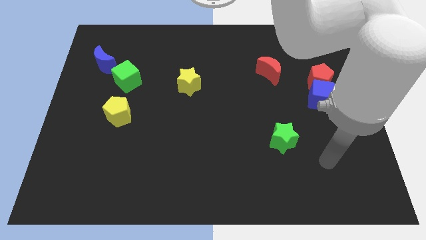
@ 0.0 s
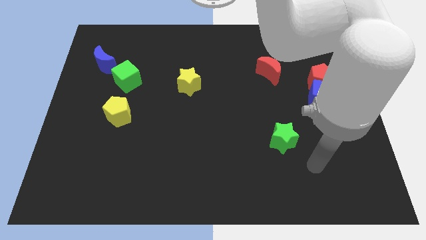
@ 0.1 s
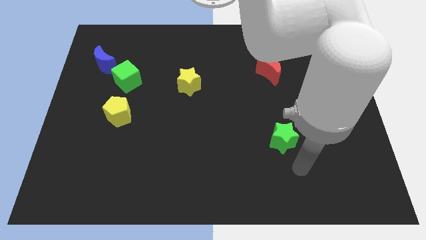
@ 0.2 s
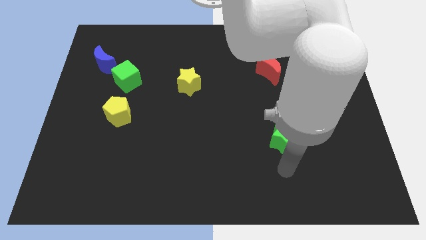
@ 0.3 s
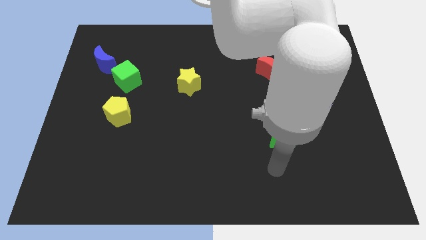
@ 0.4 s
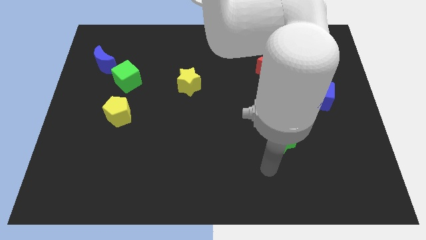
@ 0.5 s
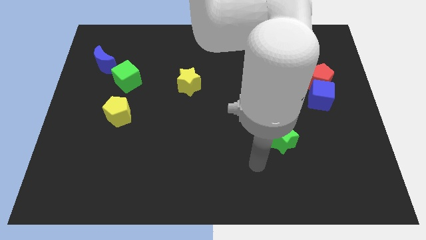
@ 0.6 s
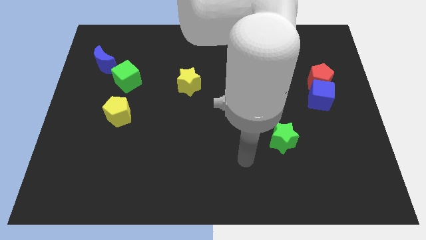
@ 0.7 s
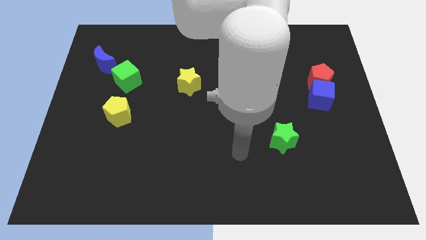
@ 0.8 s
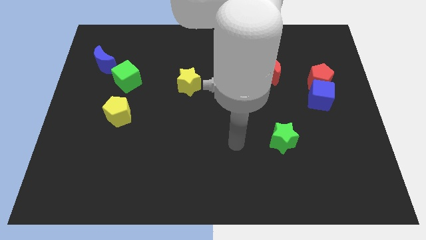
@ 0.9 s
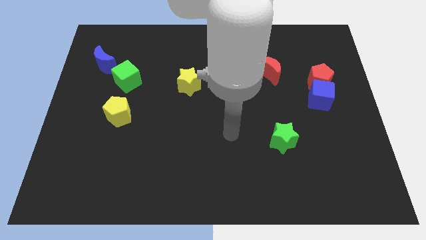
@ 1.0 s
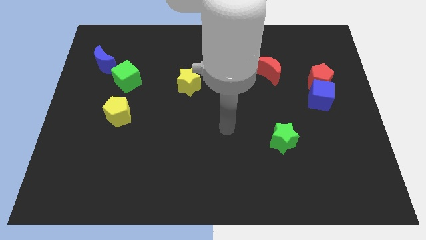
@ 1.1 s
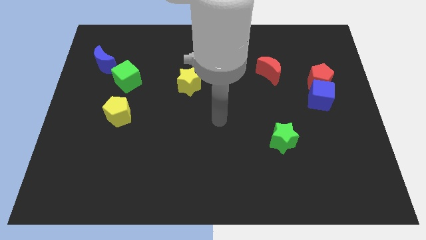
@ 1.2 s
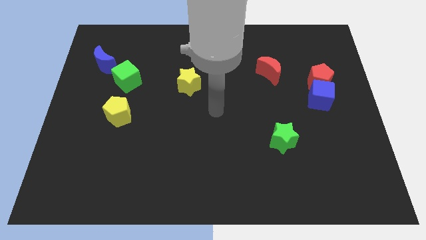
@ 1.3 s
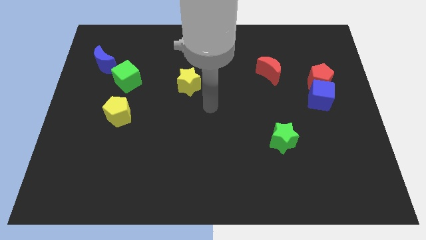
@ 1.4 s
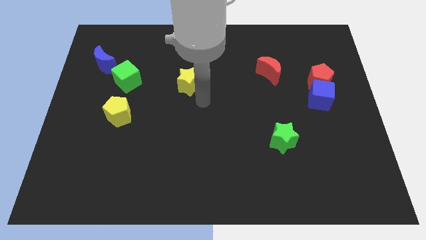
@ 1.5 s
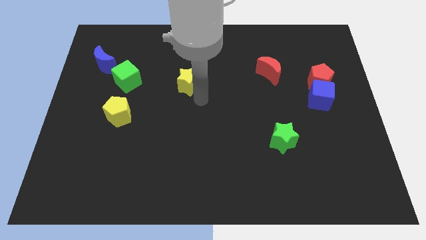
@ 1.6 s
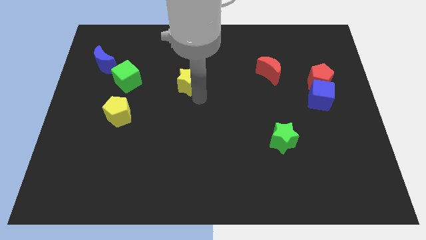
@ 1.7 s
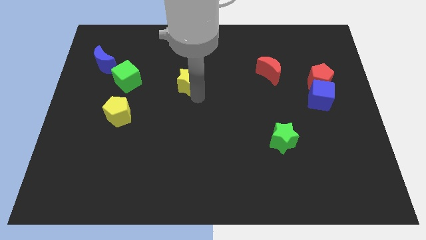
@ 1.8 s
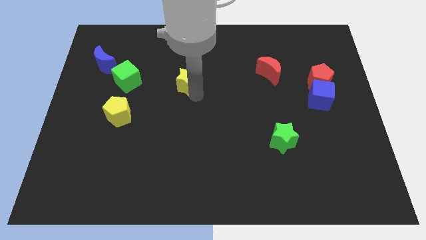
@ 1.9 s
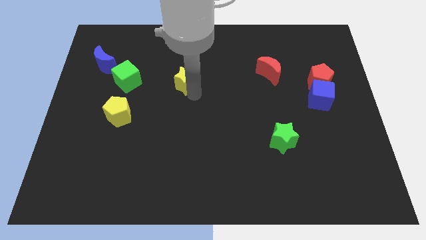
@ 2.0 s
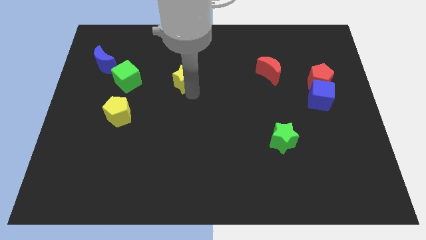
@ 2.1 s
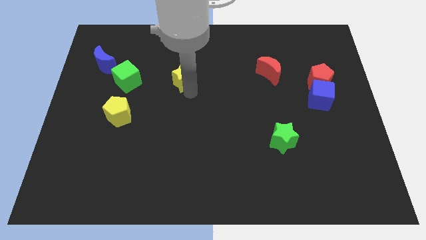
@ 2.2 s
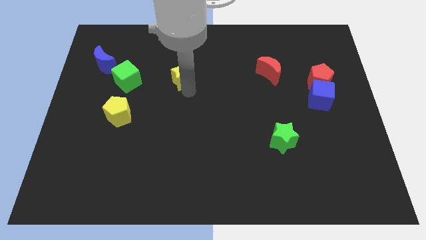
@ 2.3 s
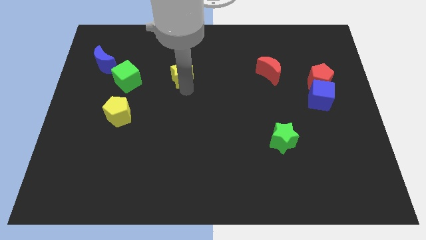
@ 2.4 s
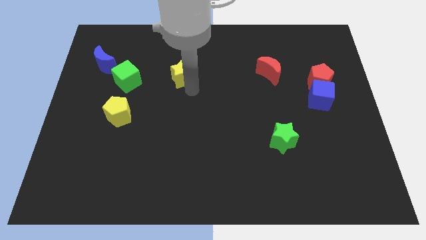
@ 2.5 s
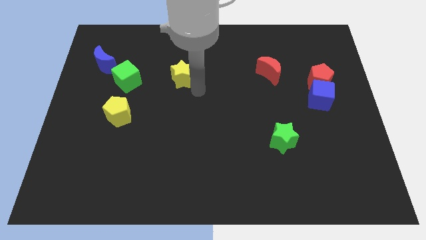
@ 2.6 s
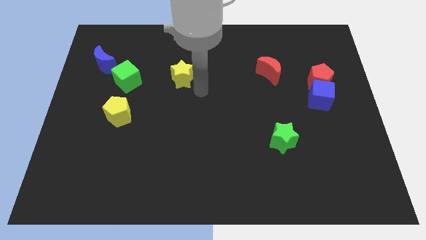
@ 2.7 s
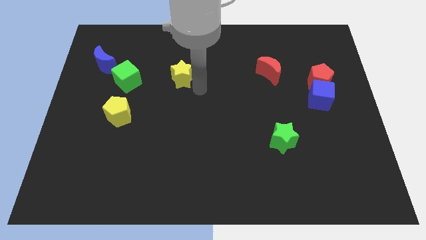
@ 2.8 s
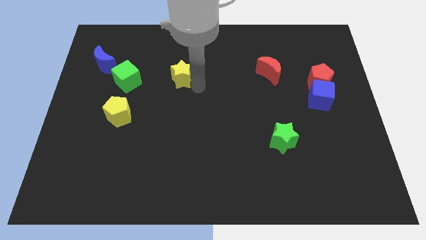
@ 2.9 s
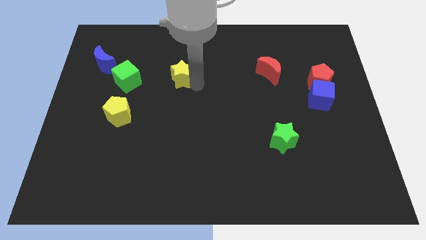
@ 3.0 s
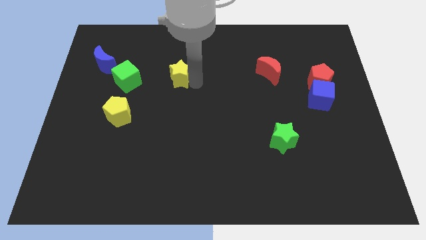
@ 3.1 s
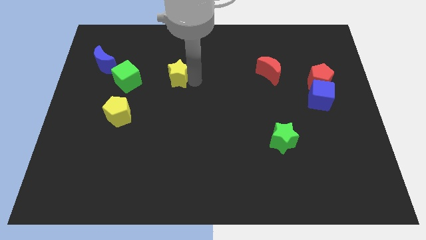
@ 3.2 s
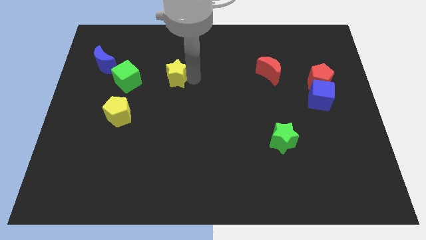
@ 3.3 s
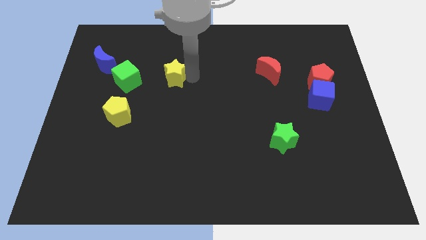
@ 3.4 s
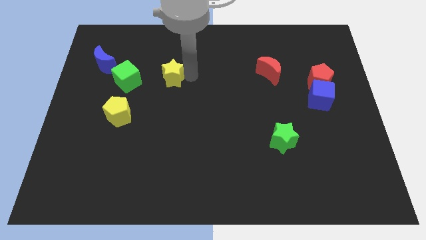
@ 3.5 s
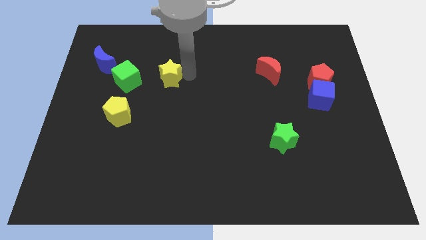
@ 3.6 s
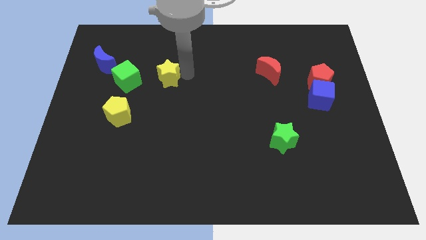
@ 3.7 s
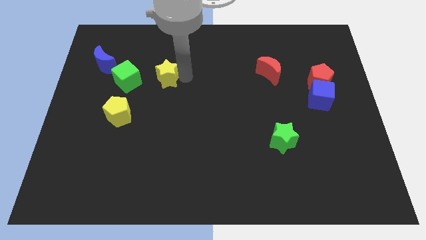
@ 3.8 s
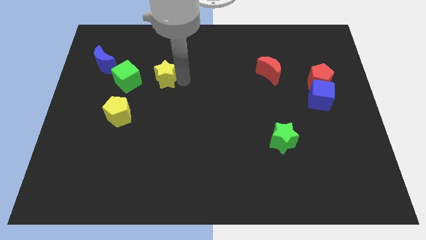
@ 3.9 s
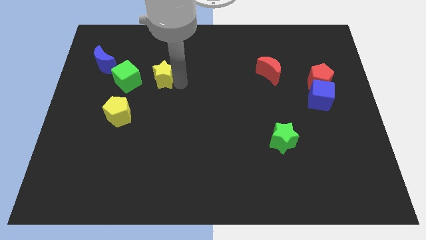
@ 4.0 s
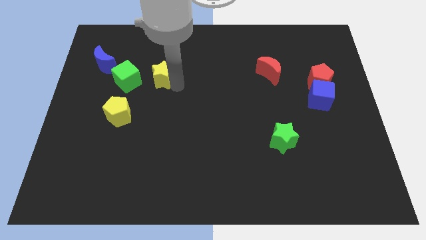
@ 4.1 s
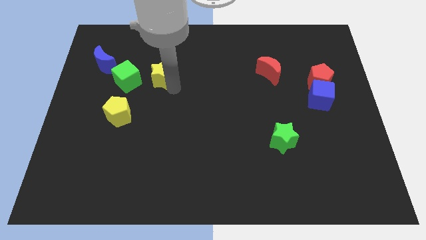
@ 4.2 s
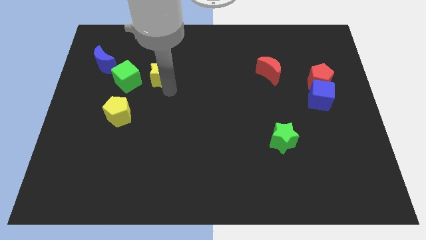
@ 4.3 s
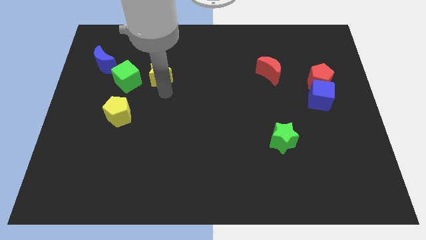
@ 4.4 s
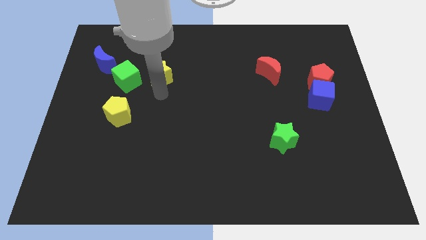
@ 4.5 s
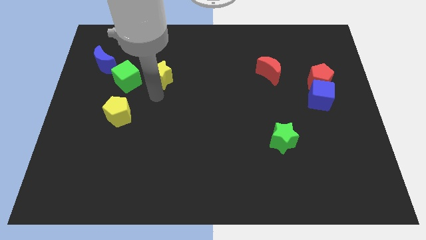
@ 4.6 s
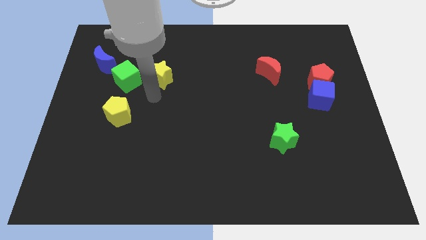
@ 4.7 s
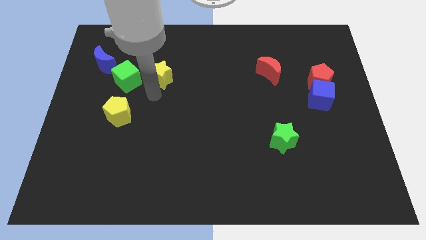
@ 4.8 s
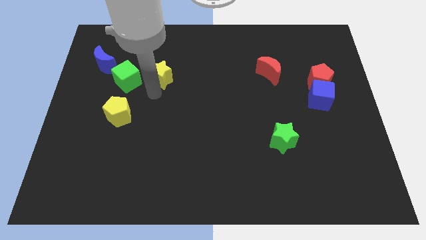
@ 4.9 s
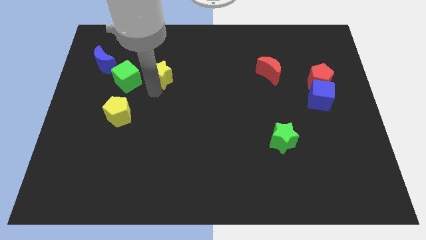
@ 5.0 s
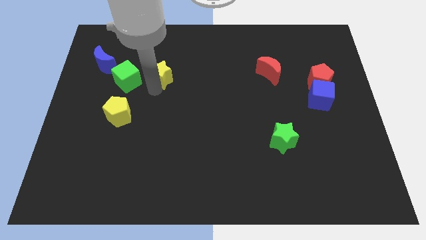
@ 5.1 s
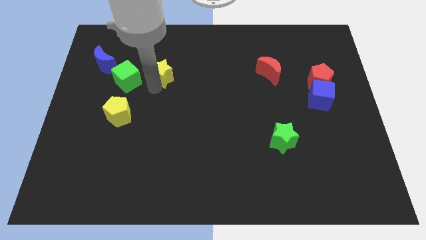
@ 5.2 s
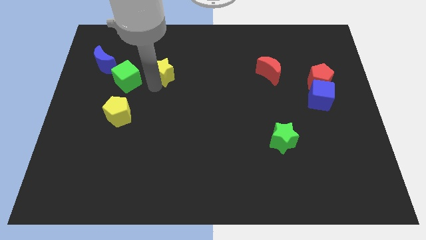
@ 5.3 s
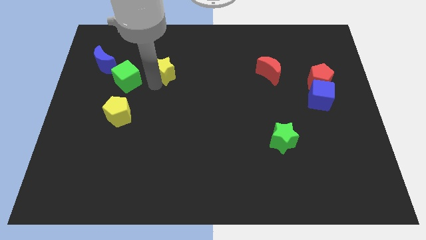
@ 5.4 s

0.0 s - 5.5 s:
slide the yellow star to the top right side of the green cube

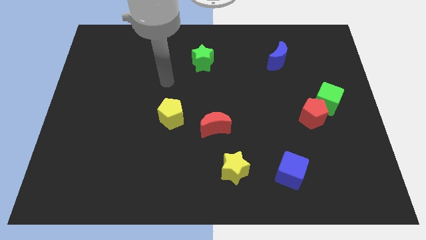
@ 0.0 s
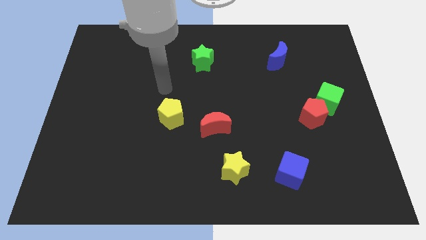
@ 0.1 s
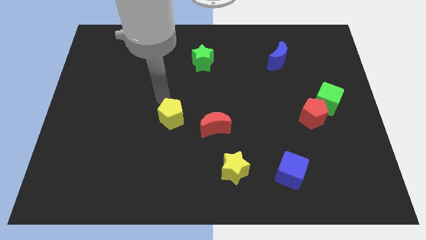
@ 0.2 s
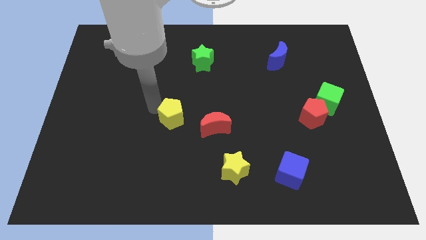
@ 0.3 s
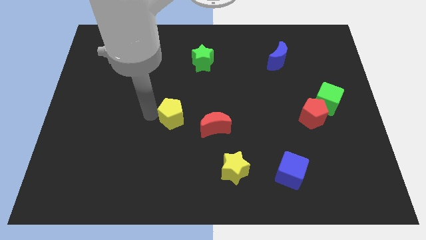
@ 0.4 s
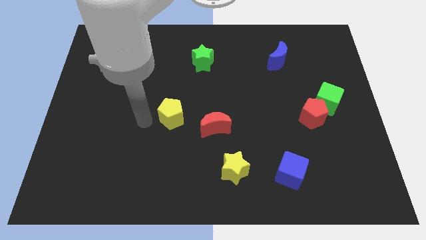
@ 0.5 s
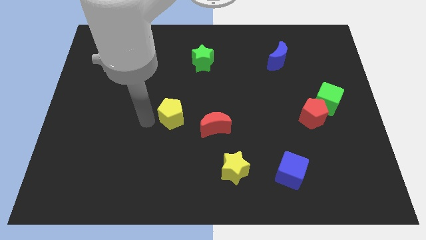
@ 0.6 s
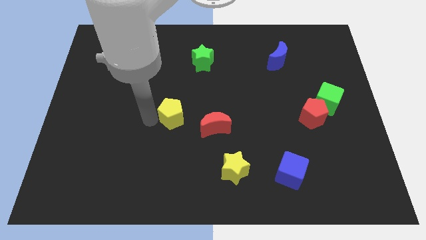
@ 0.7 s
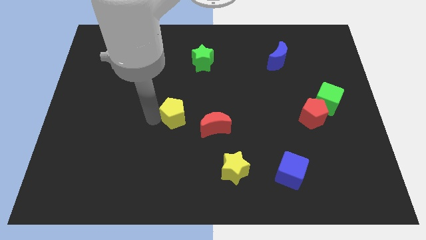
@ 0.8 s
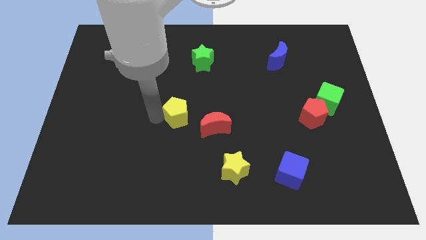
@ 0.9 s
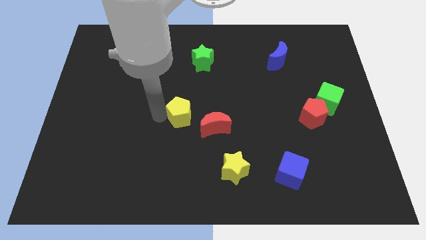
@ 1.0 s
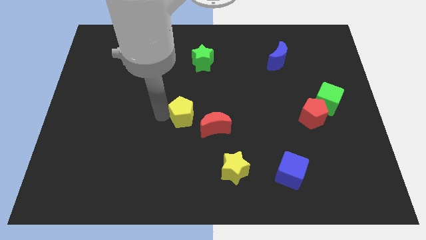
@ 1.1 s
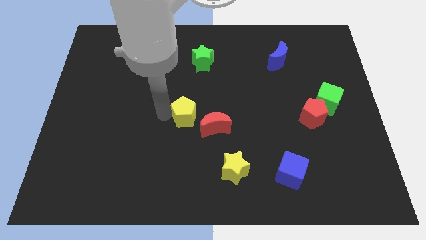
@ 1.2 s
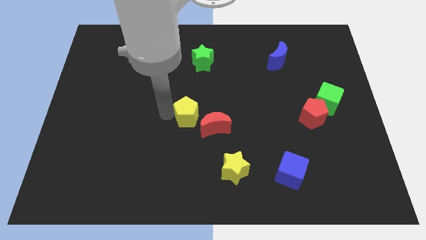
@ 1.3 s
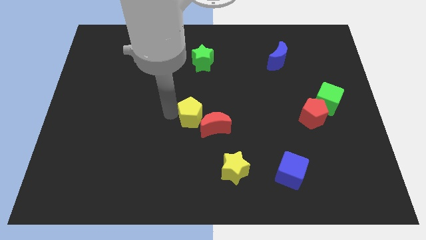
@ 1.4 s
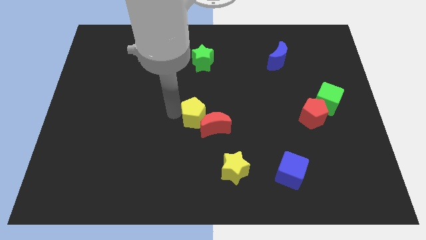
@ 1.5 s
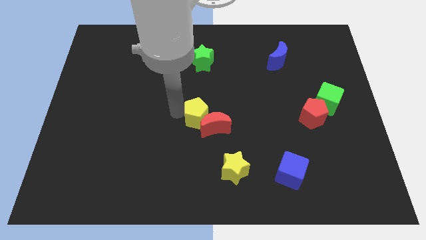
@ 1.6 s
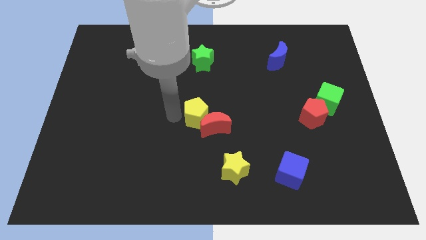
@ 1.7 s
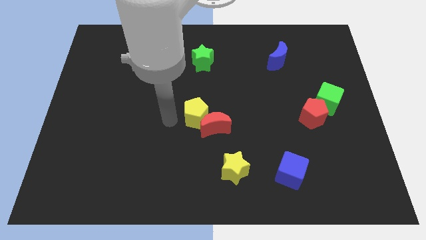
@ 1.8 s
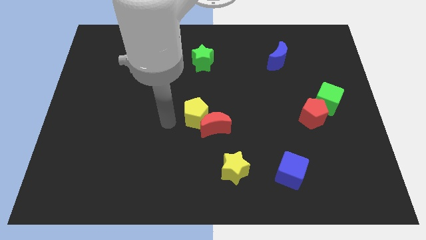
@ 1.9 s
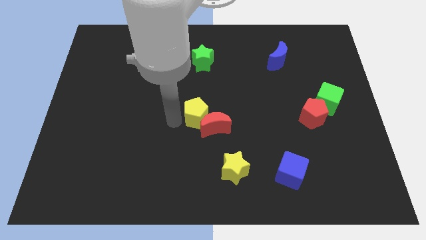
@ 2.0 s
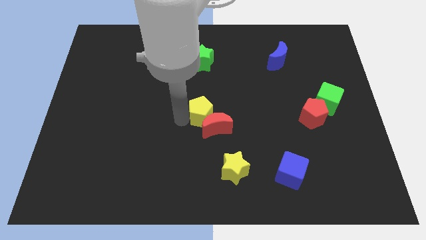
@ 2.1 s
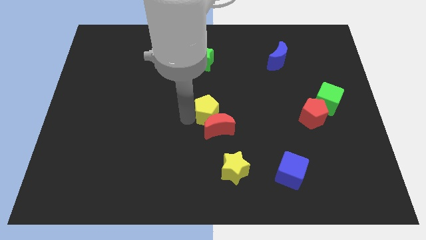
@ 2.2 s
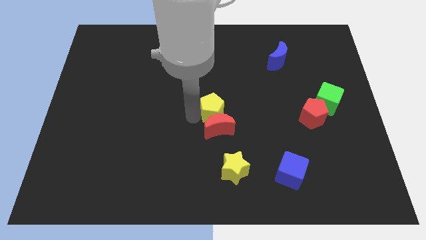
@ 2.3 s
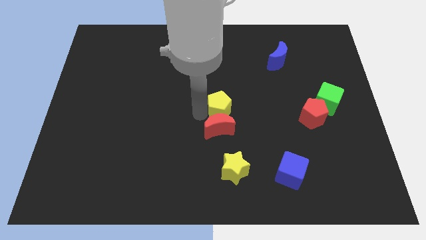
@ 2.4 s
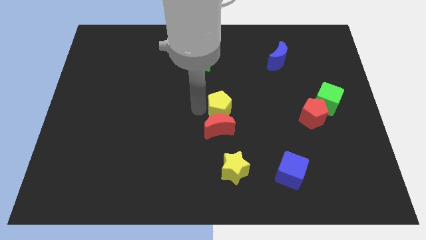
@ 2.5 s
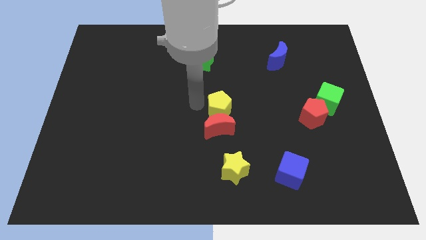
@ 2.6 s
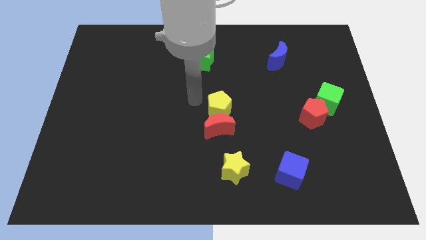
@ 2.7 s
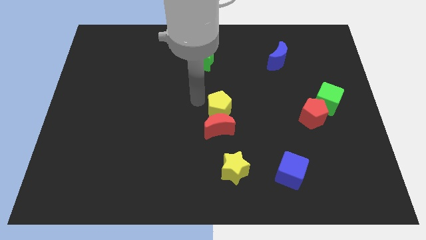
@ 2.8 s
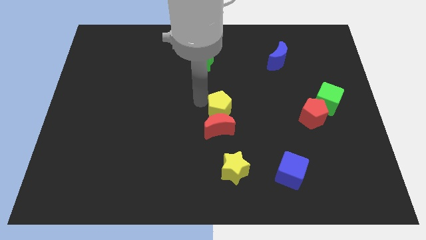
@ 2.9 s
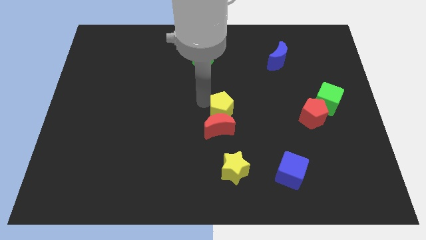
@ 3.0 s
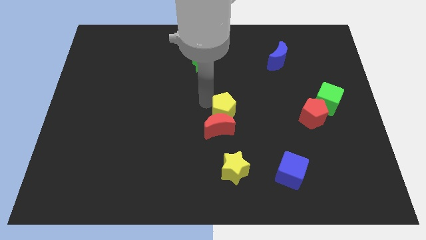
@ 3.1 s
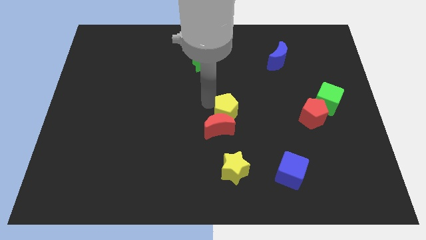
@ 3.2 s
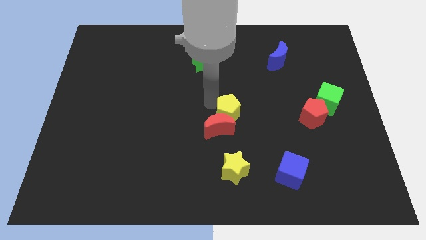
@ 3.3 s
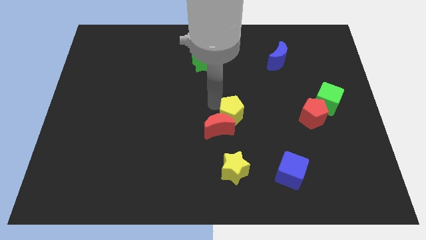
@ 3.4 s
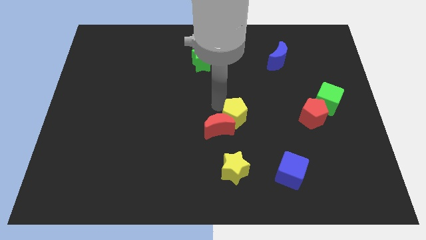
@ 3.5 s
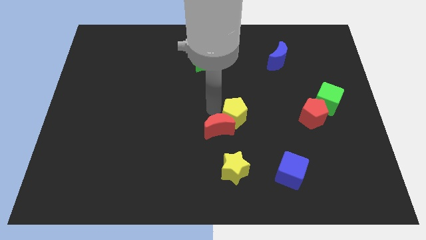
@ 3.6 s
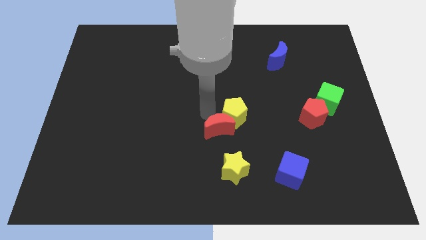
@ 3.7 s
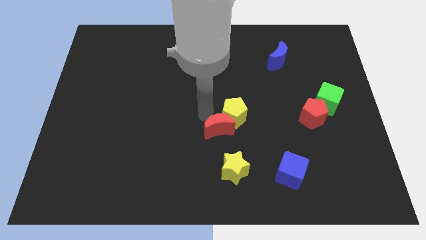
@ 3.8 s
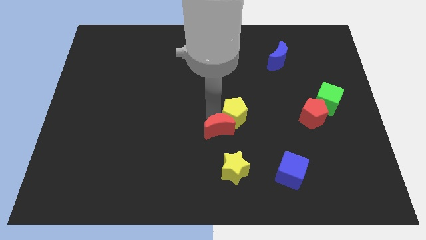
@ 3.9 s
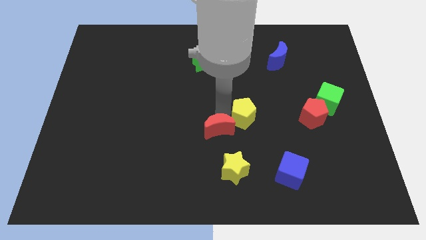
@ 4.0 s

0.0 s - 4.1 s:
put the yellow pentagon to the left of the red pentagon
